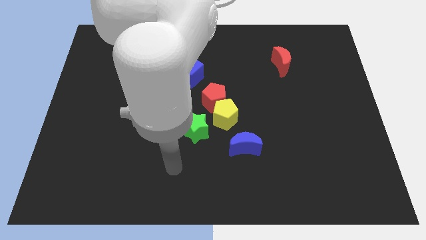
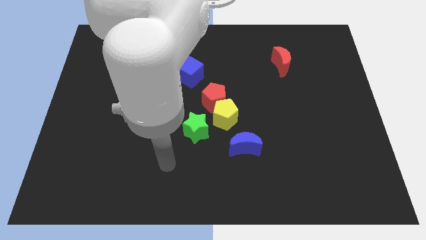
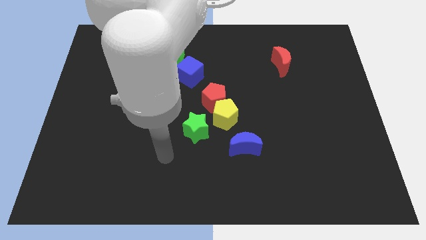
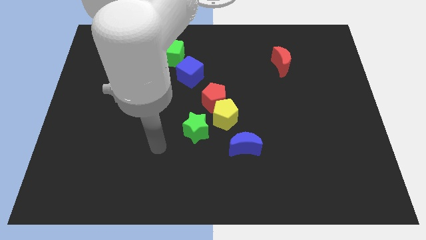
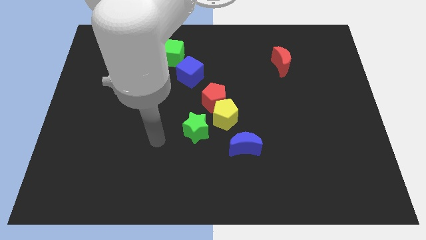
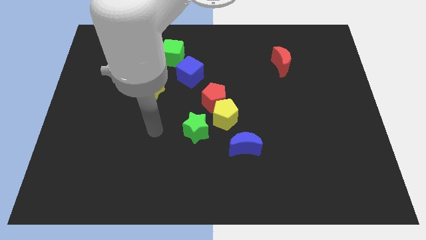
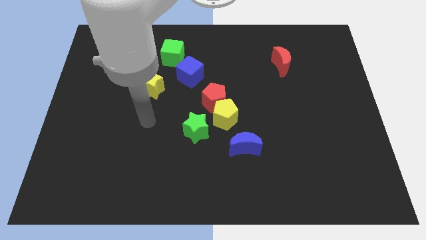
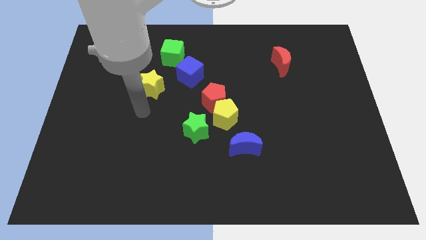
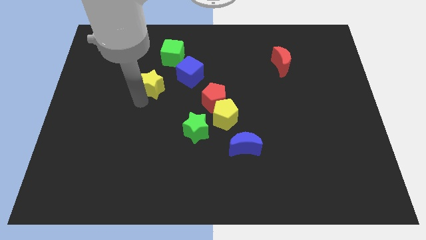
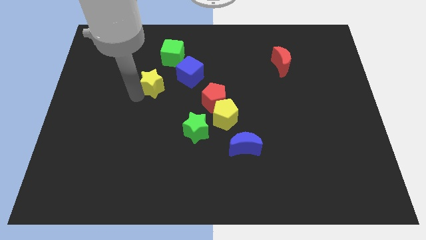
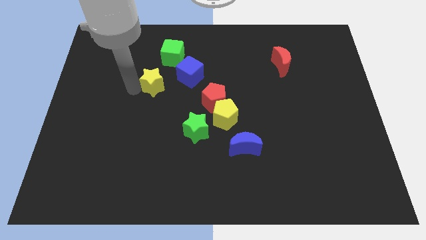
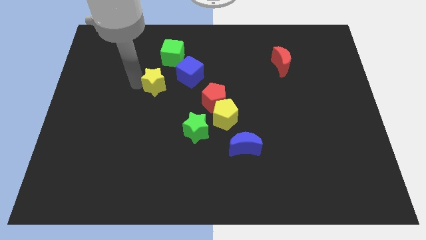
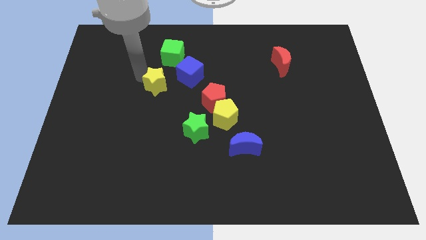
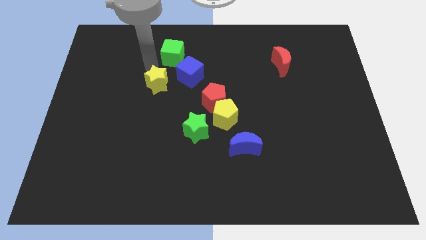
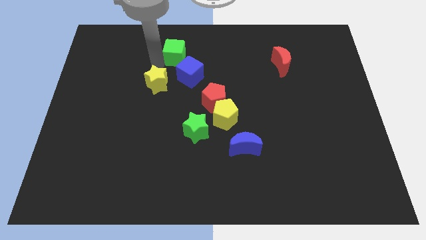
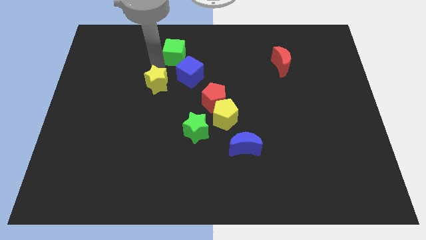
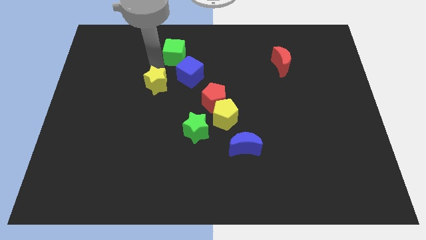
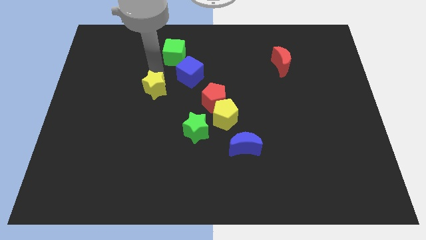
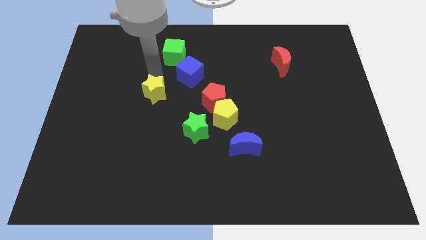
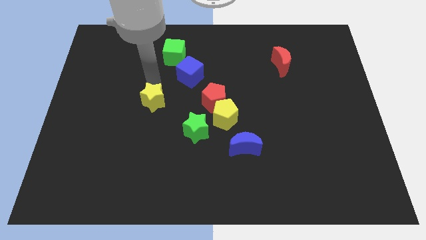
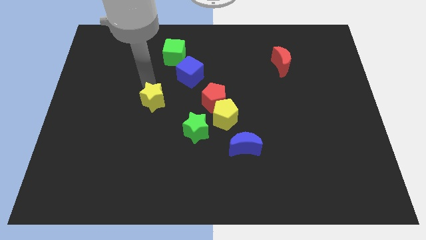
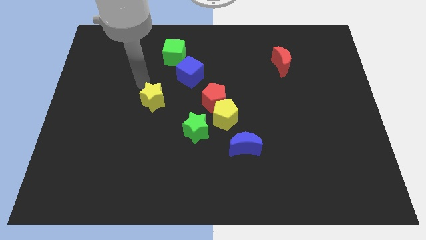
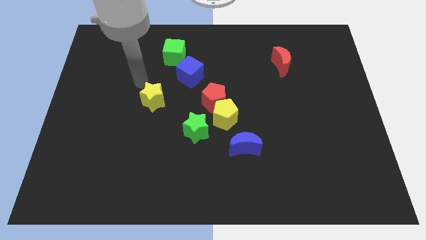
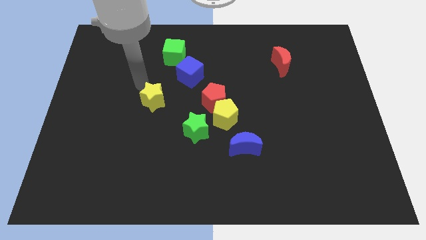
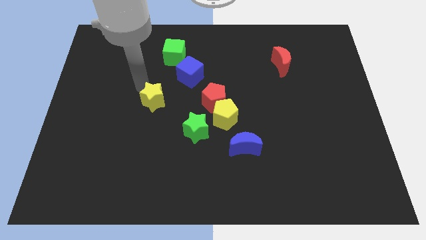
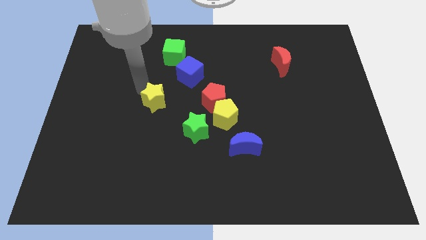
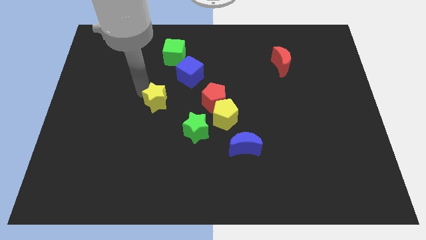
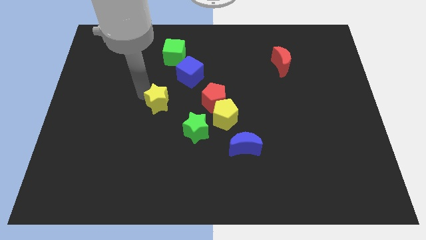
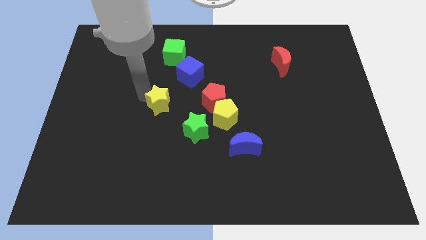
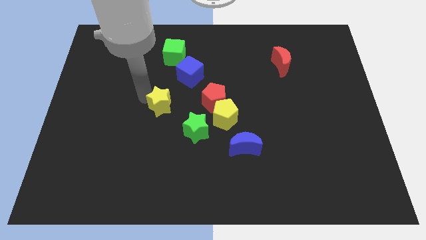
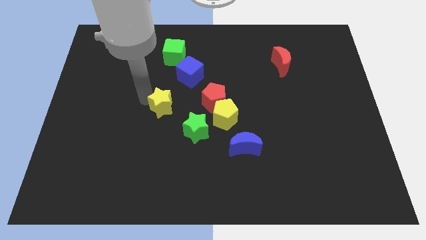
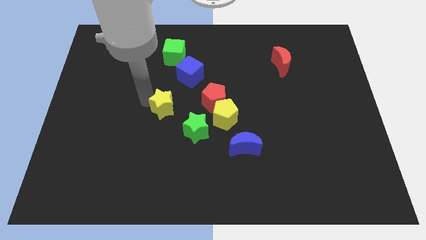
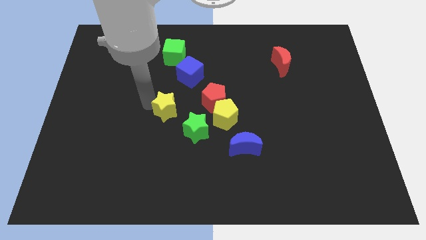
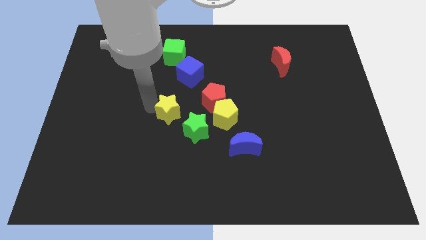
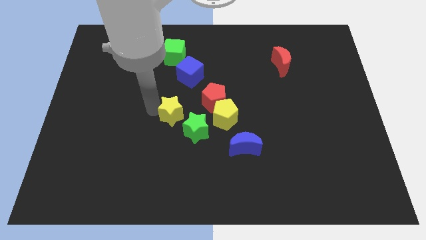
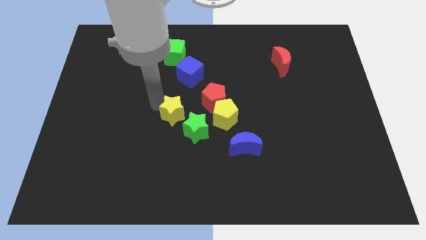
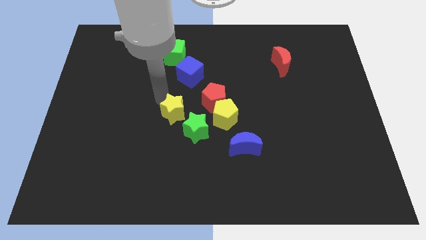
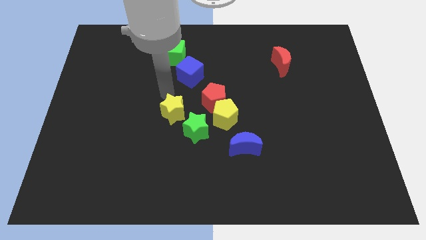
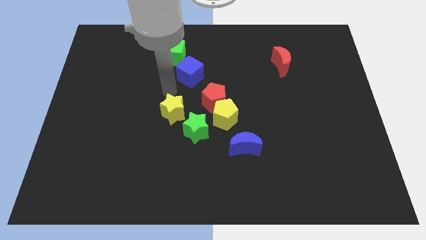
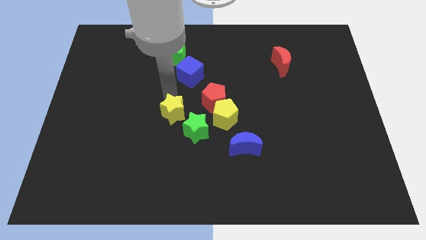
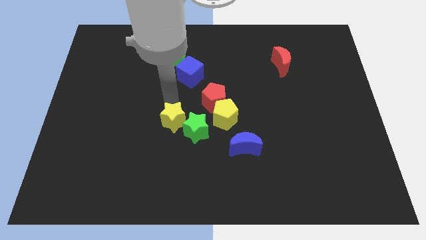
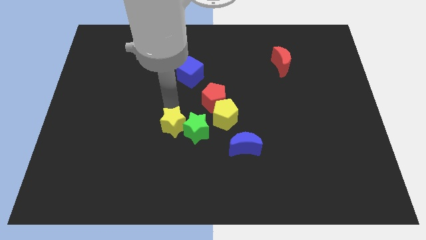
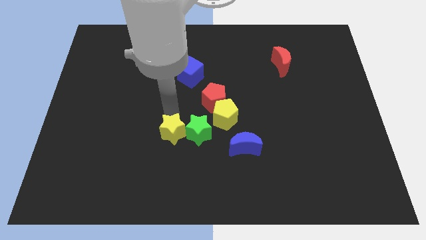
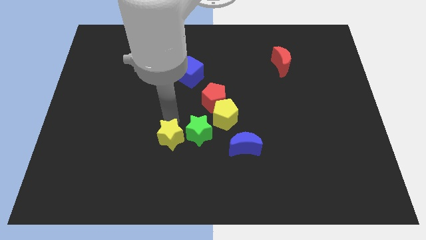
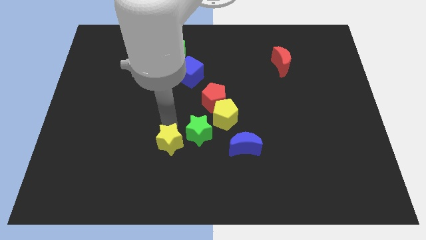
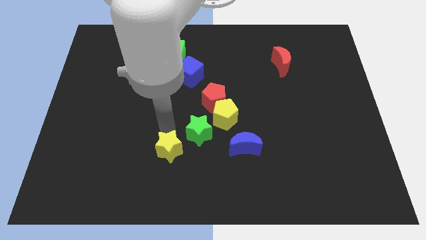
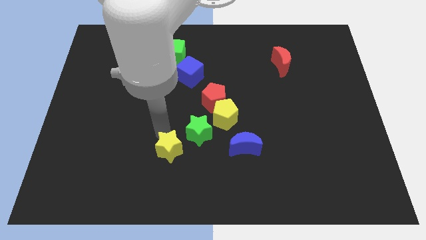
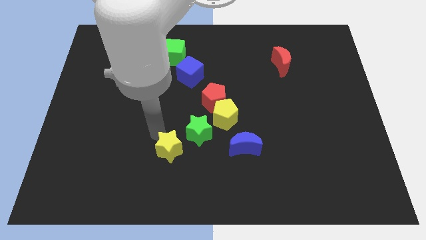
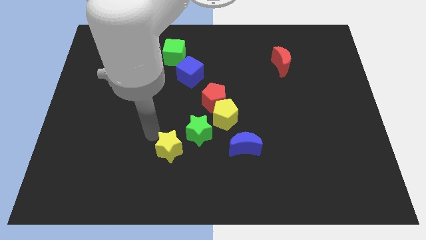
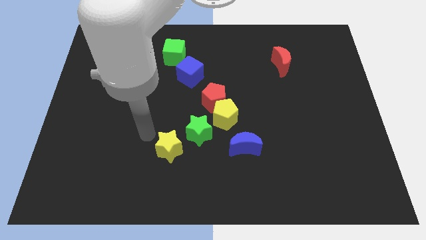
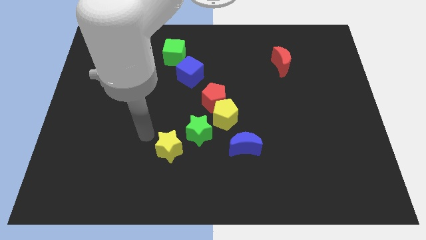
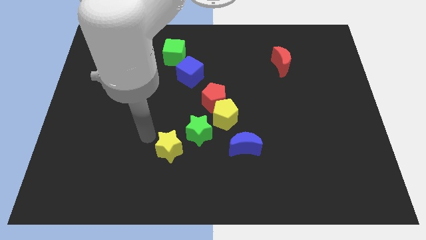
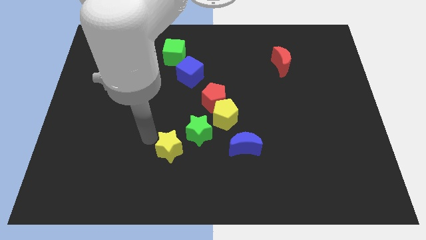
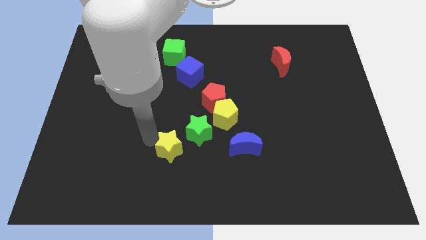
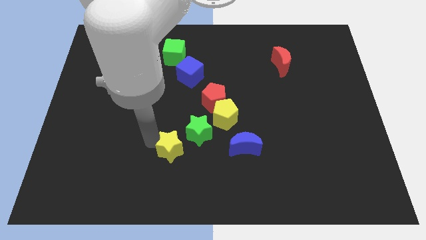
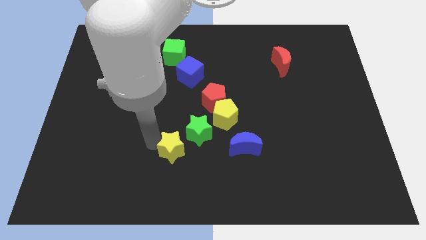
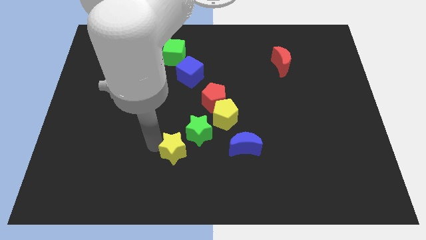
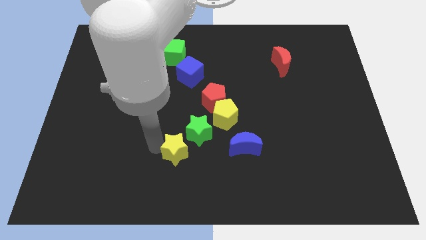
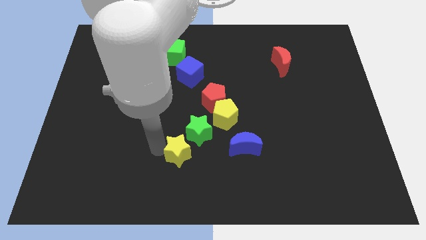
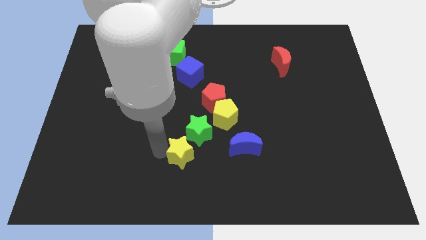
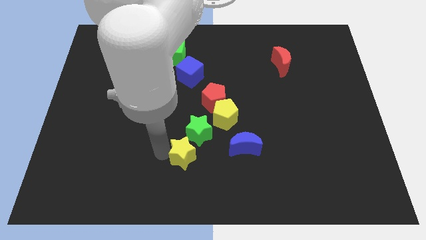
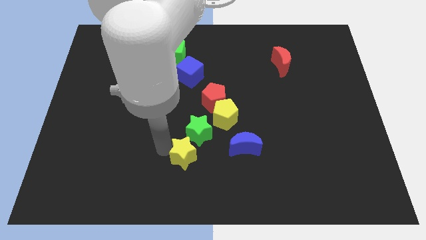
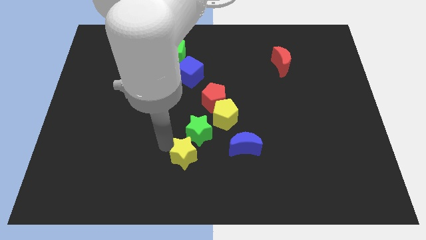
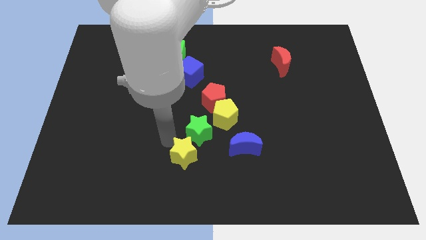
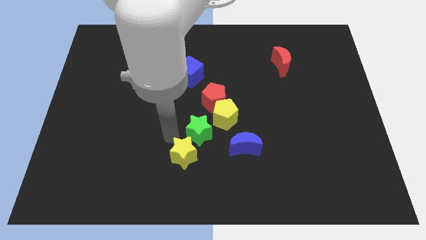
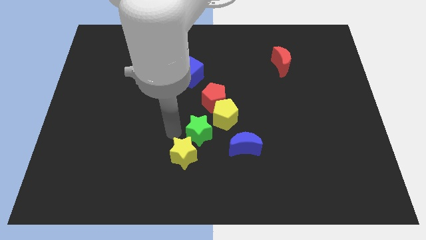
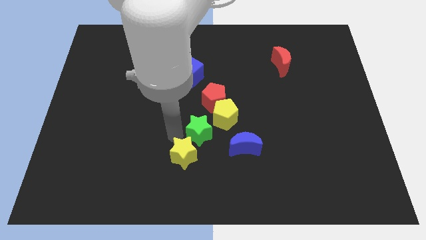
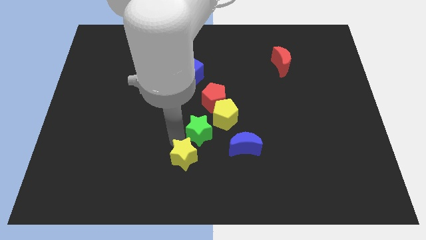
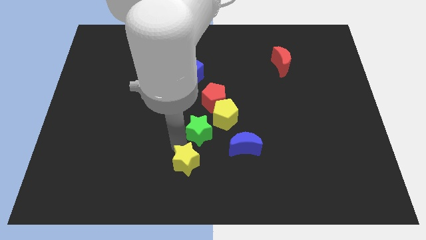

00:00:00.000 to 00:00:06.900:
push the yellow star to the bottom
